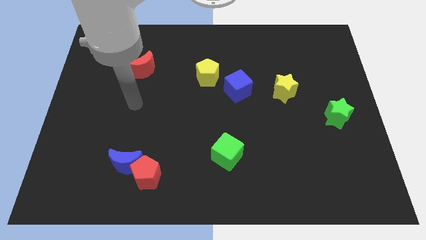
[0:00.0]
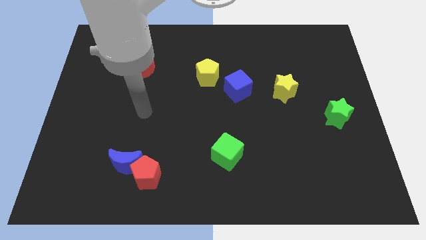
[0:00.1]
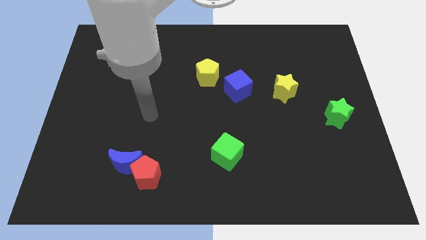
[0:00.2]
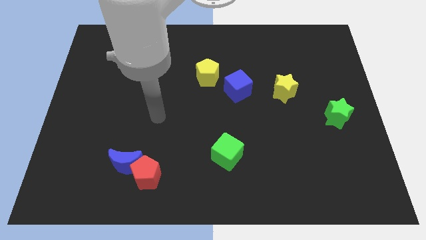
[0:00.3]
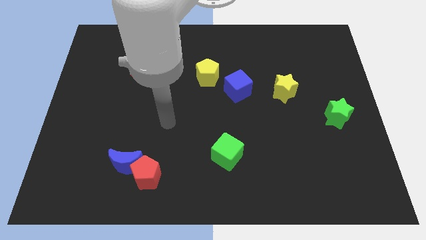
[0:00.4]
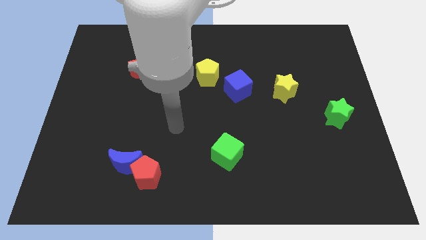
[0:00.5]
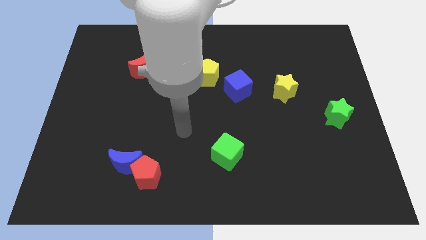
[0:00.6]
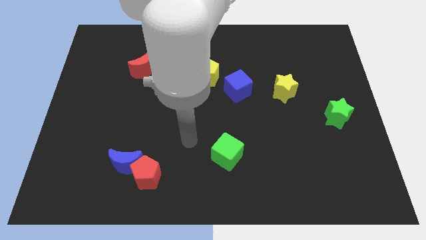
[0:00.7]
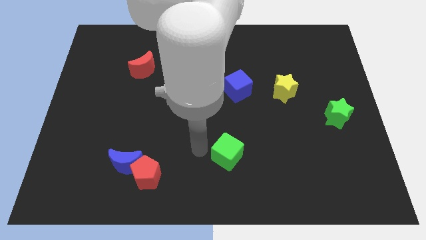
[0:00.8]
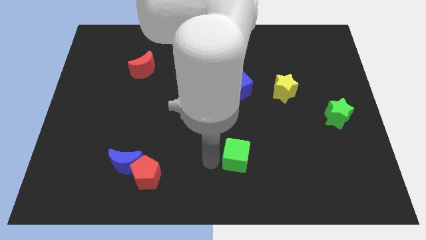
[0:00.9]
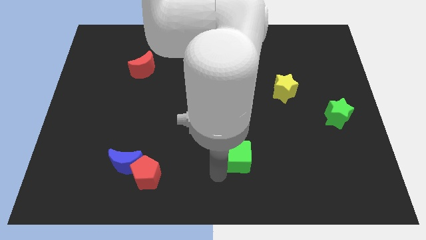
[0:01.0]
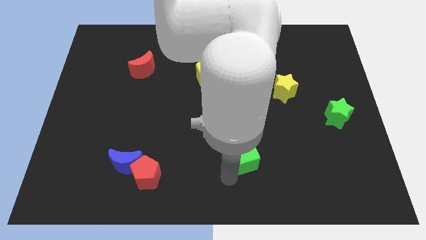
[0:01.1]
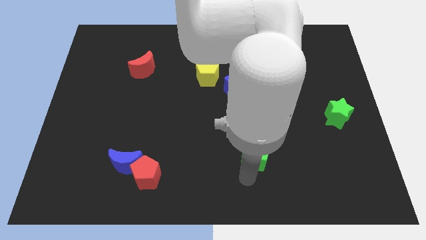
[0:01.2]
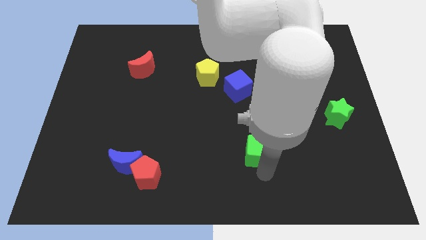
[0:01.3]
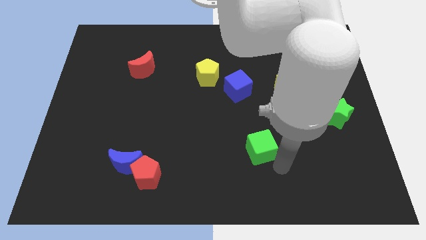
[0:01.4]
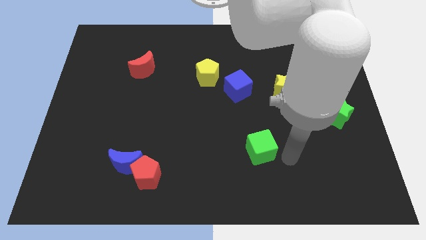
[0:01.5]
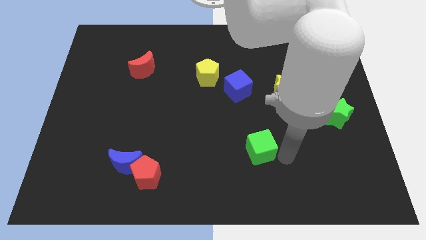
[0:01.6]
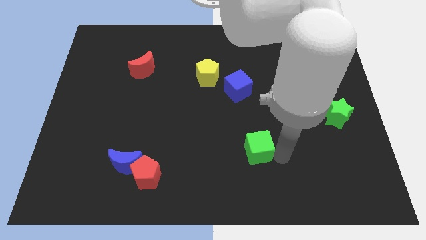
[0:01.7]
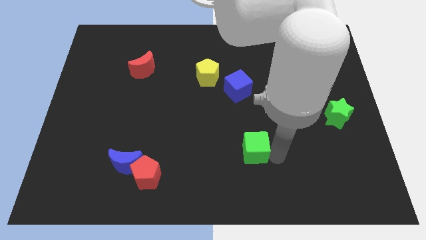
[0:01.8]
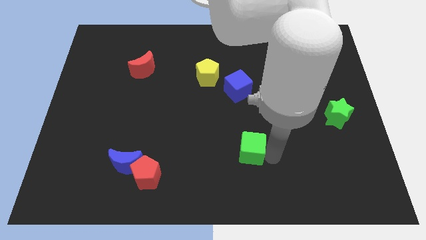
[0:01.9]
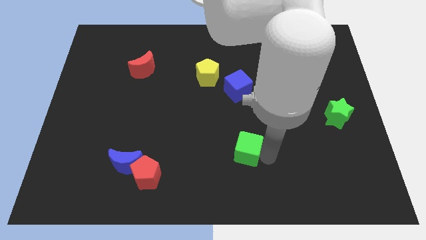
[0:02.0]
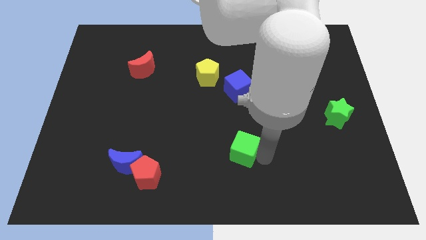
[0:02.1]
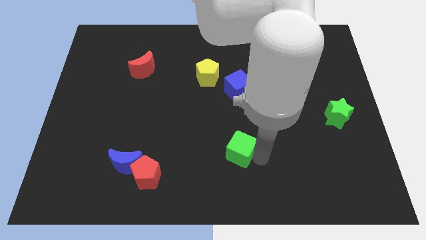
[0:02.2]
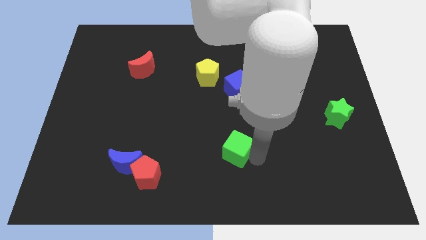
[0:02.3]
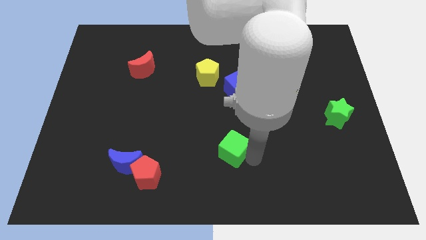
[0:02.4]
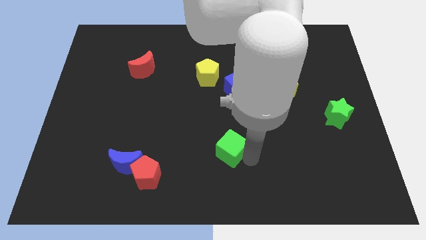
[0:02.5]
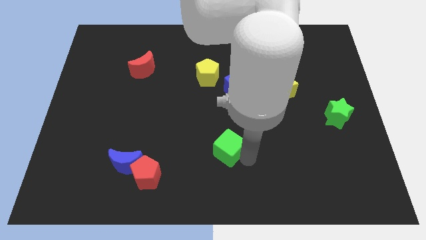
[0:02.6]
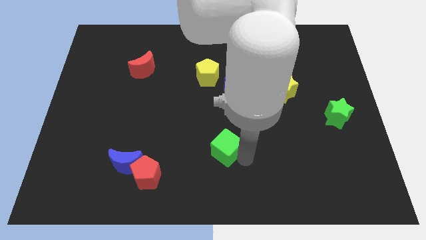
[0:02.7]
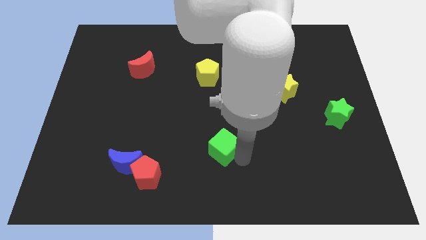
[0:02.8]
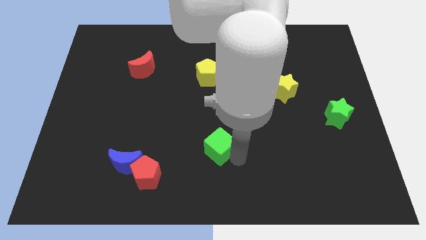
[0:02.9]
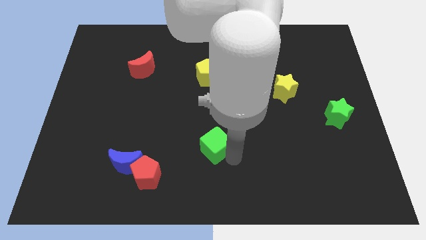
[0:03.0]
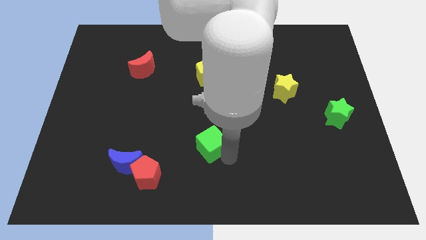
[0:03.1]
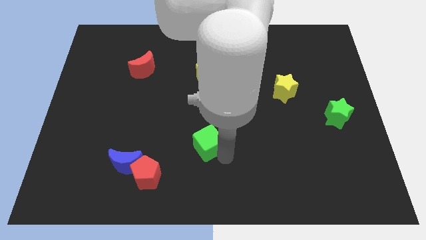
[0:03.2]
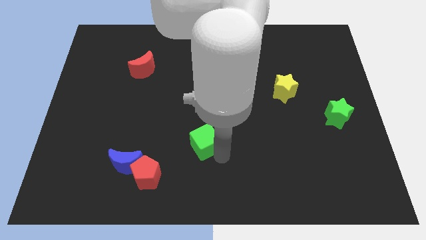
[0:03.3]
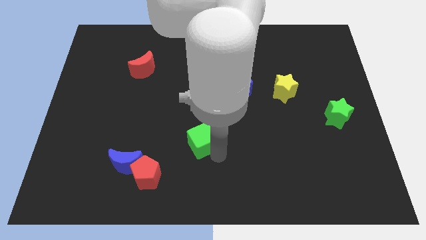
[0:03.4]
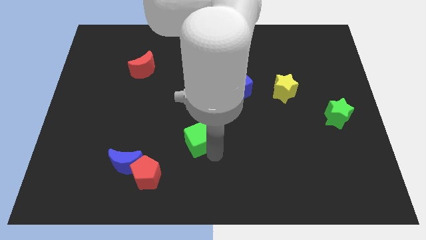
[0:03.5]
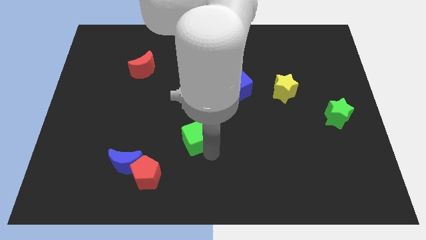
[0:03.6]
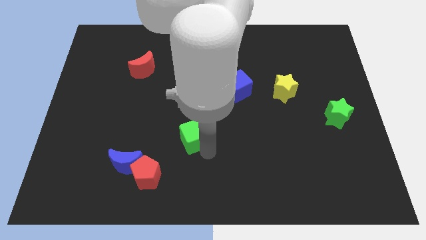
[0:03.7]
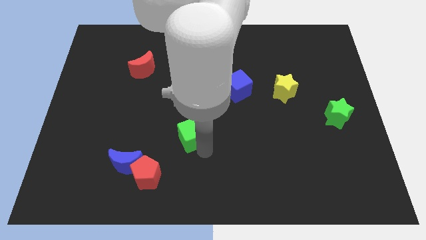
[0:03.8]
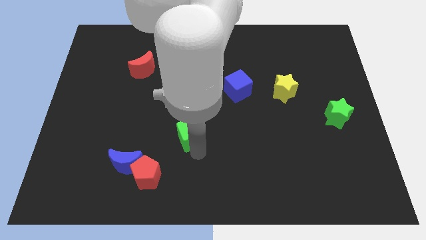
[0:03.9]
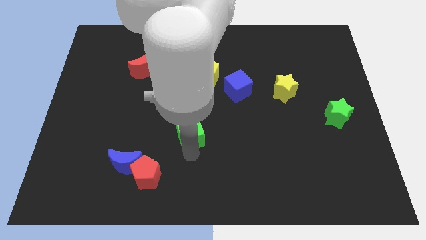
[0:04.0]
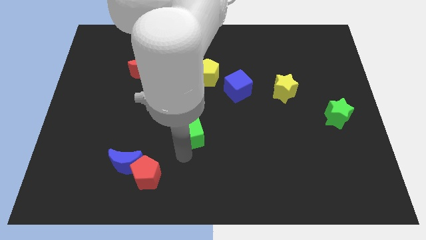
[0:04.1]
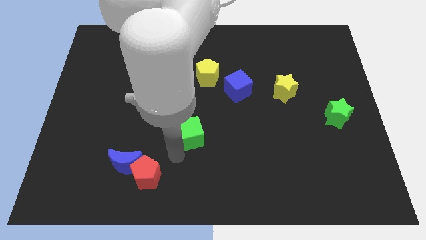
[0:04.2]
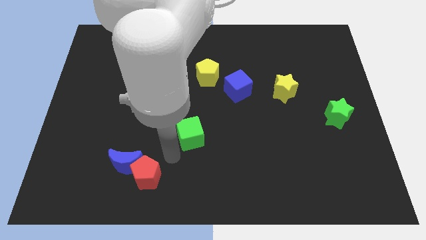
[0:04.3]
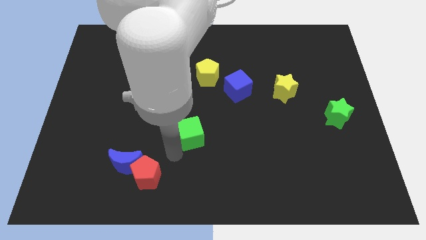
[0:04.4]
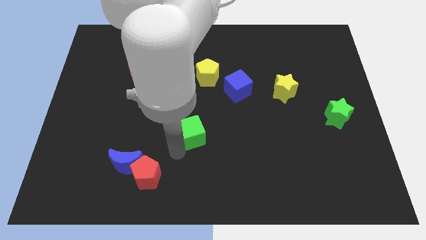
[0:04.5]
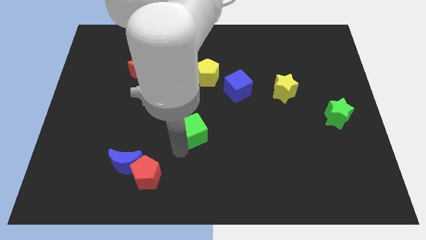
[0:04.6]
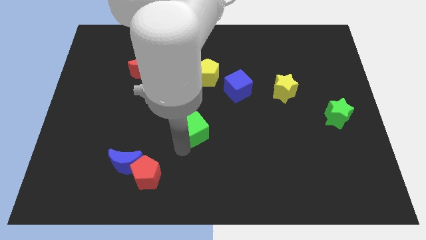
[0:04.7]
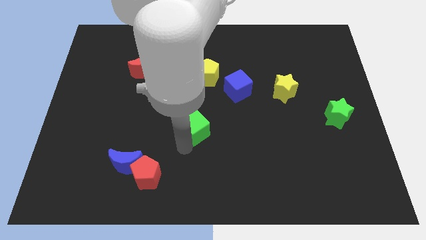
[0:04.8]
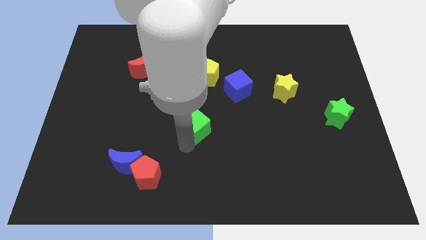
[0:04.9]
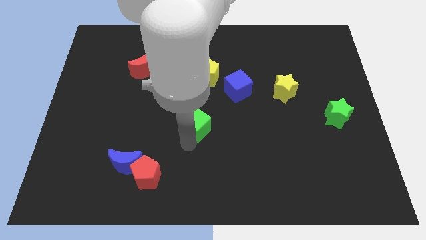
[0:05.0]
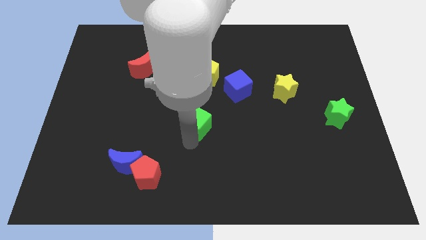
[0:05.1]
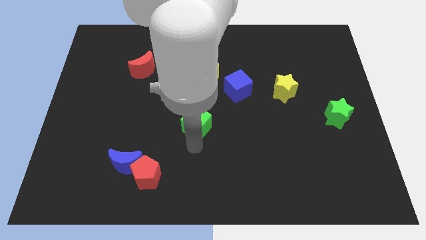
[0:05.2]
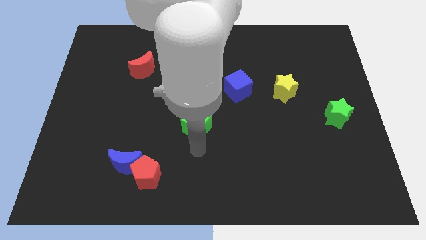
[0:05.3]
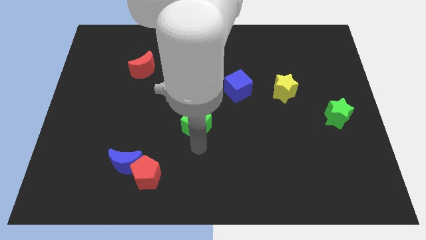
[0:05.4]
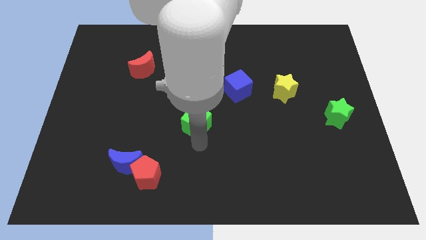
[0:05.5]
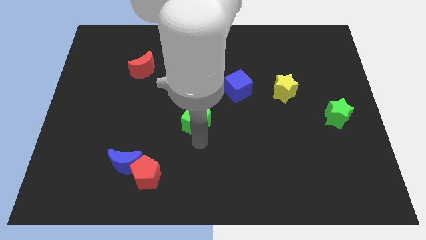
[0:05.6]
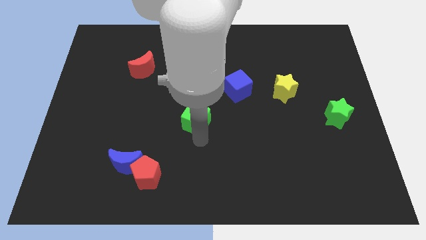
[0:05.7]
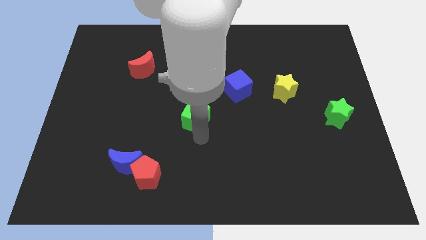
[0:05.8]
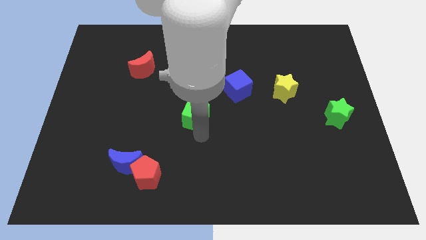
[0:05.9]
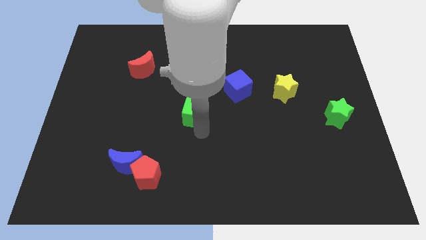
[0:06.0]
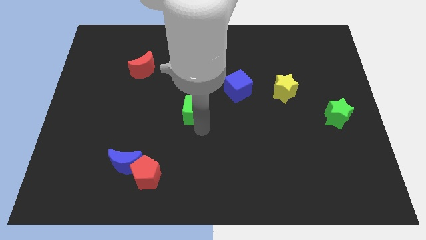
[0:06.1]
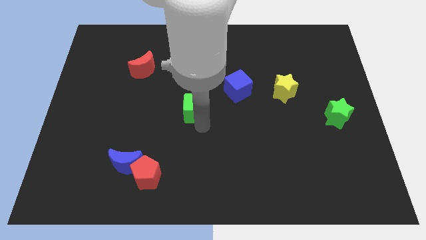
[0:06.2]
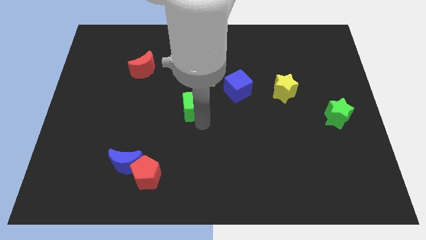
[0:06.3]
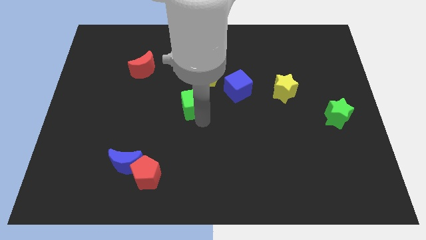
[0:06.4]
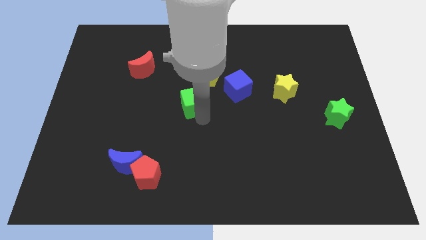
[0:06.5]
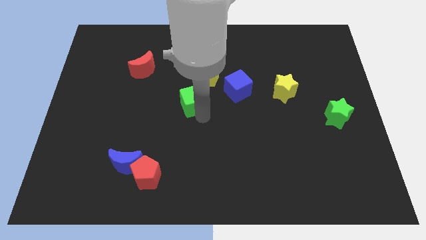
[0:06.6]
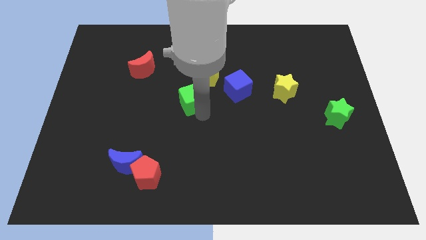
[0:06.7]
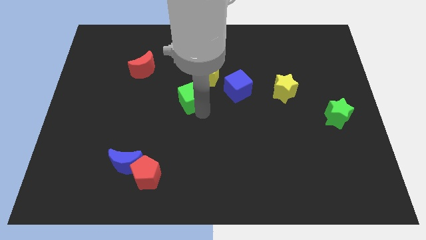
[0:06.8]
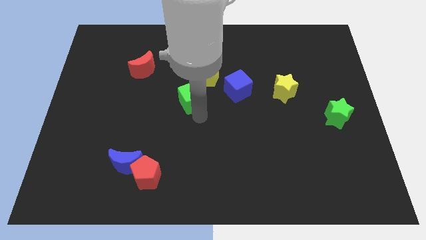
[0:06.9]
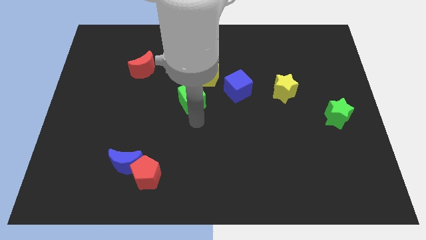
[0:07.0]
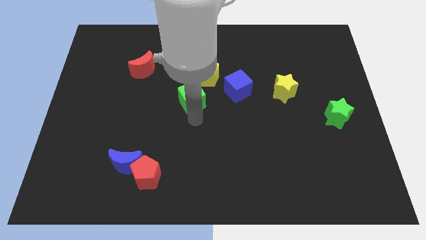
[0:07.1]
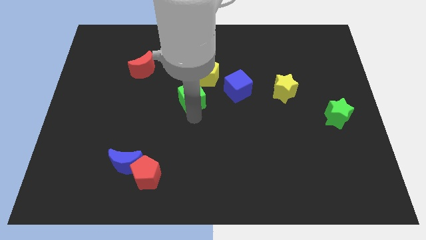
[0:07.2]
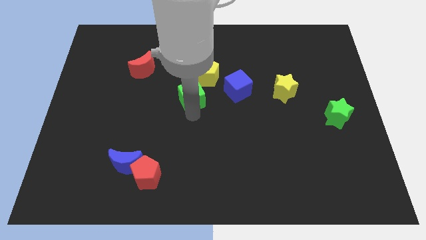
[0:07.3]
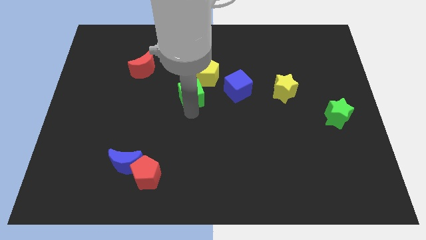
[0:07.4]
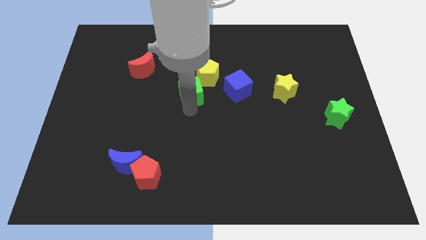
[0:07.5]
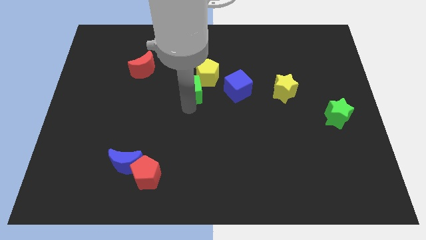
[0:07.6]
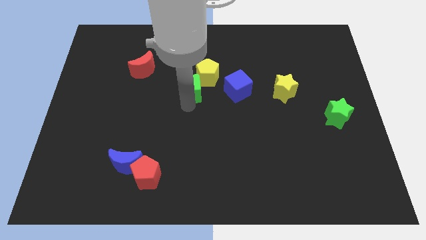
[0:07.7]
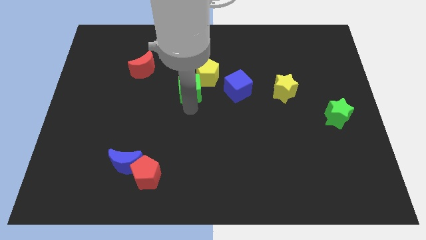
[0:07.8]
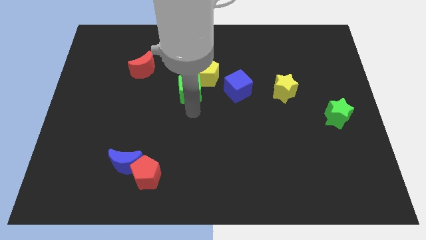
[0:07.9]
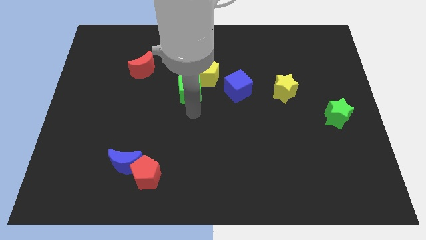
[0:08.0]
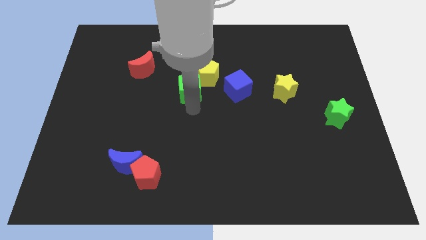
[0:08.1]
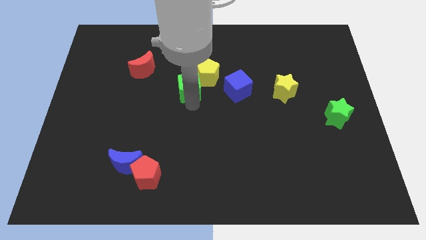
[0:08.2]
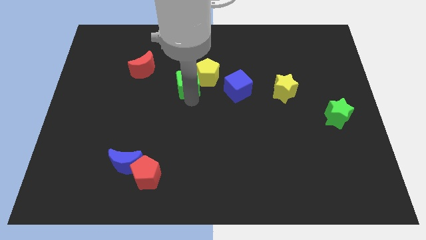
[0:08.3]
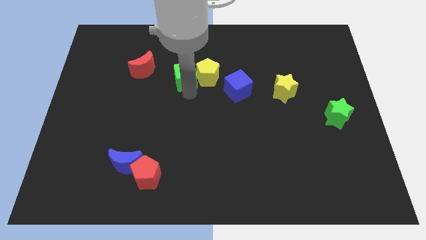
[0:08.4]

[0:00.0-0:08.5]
put the green cube to the top left of the yellow pentagon
